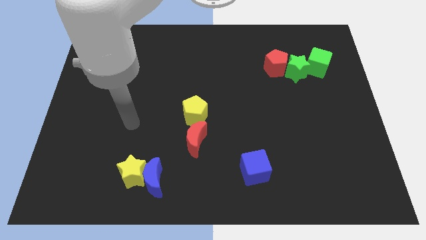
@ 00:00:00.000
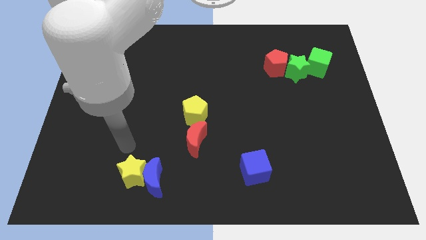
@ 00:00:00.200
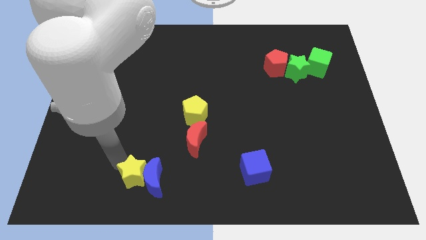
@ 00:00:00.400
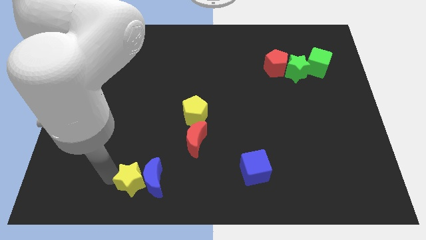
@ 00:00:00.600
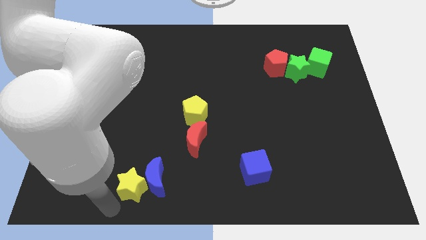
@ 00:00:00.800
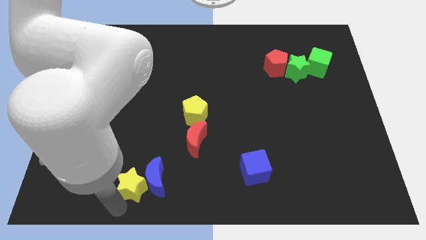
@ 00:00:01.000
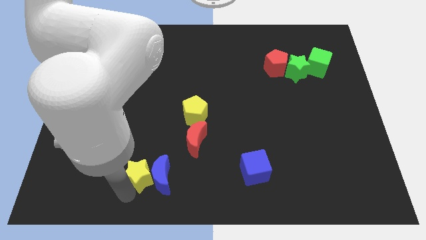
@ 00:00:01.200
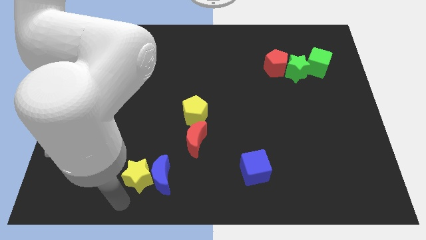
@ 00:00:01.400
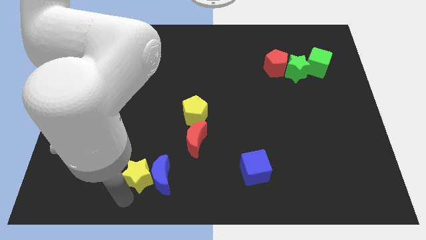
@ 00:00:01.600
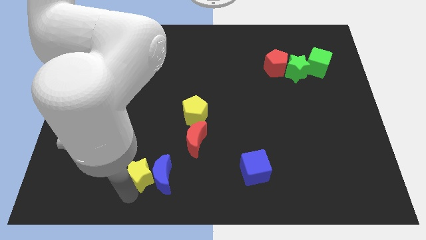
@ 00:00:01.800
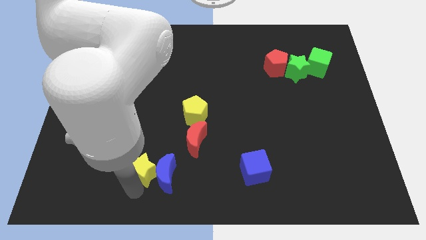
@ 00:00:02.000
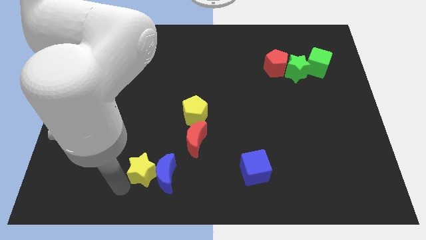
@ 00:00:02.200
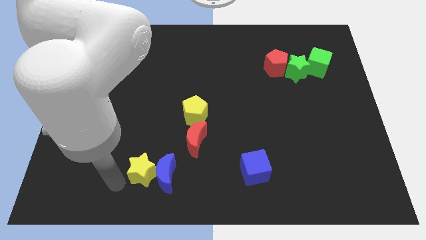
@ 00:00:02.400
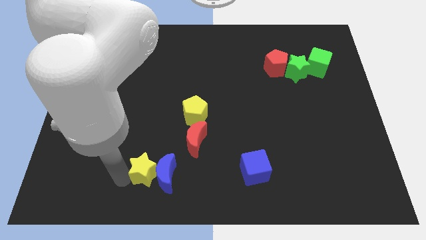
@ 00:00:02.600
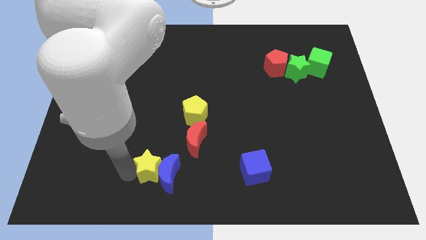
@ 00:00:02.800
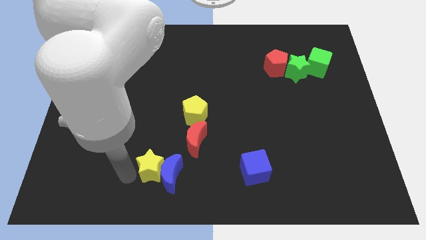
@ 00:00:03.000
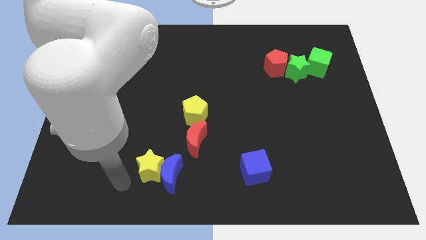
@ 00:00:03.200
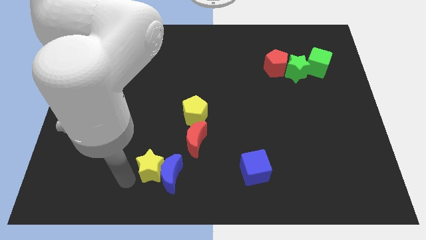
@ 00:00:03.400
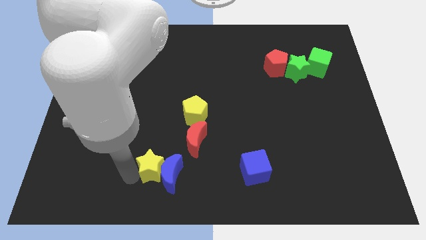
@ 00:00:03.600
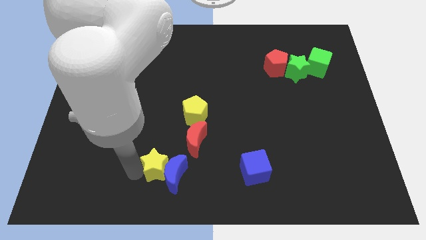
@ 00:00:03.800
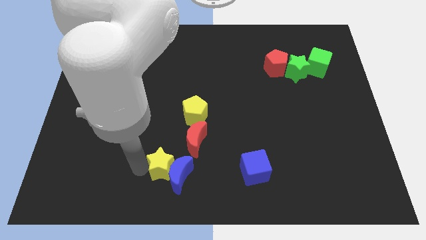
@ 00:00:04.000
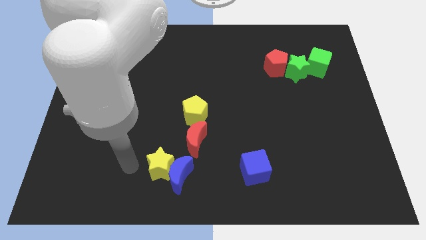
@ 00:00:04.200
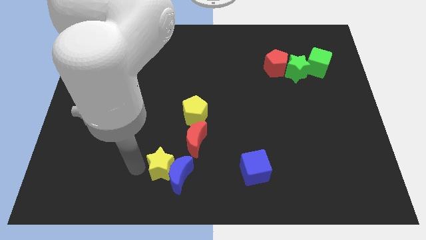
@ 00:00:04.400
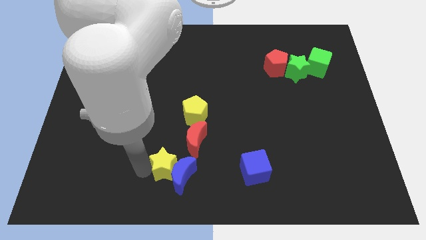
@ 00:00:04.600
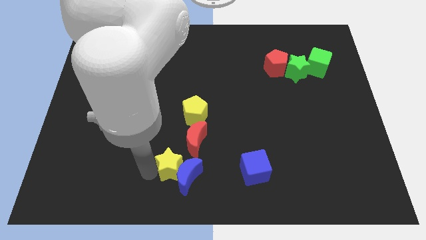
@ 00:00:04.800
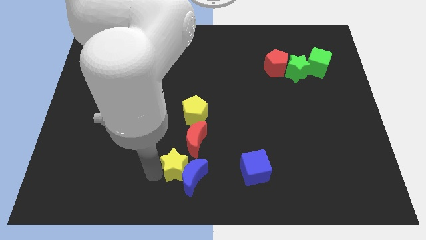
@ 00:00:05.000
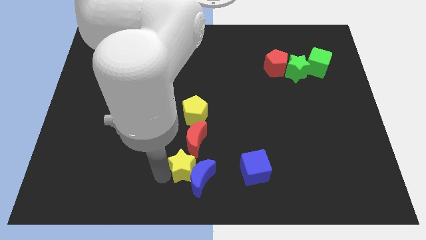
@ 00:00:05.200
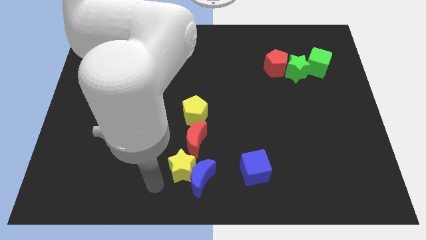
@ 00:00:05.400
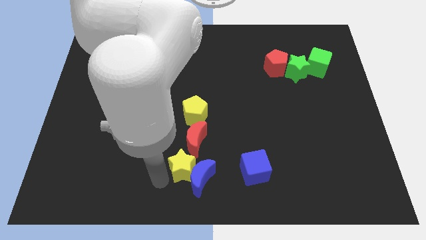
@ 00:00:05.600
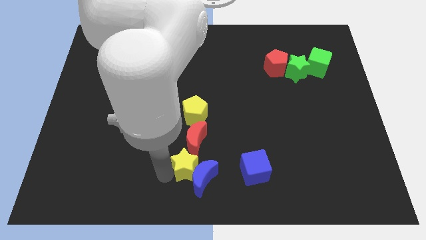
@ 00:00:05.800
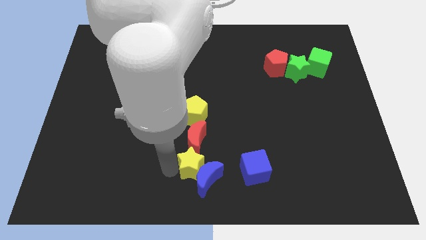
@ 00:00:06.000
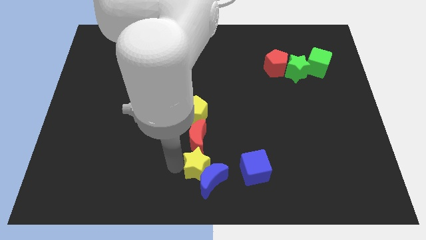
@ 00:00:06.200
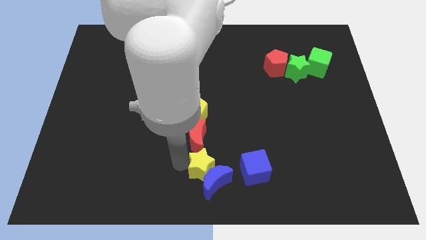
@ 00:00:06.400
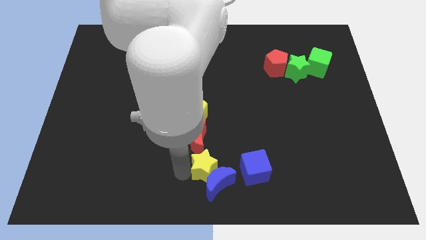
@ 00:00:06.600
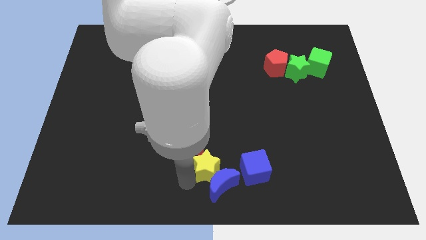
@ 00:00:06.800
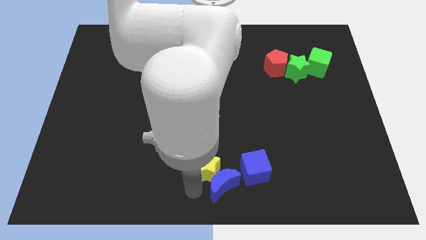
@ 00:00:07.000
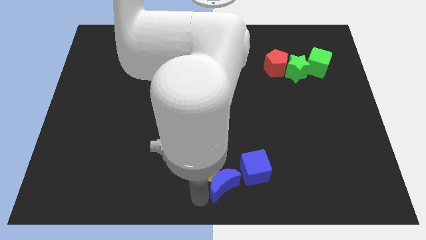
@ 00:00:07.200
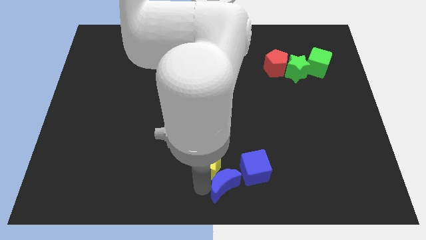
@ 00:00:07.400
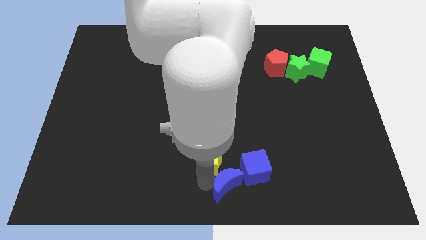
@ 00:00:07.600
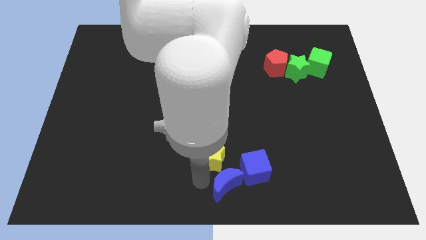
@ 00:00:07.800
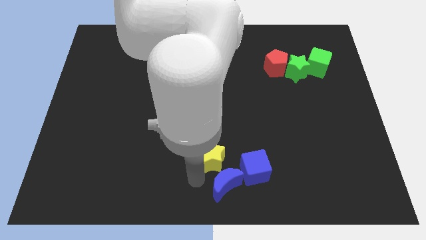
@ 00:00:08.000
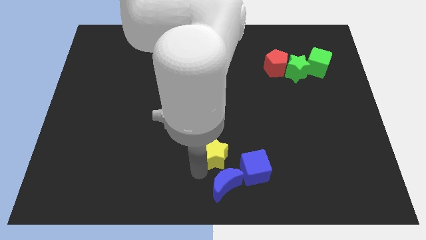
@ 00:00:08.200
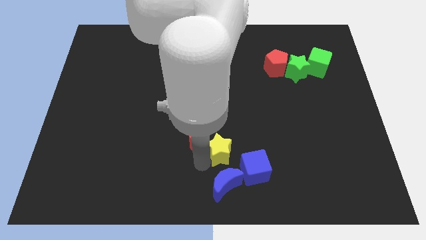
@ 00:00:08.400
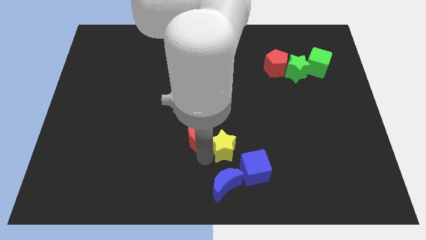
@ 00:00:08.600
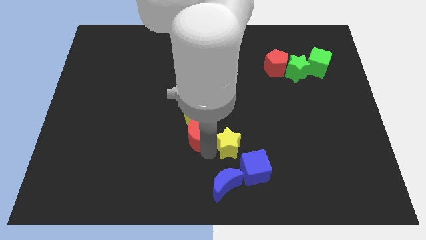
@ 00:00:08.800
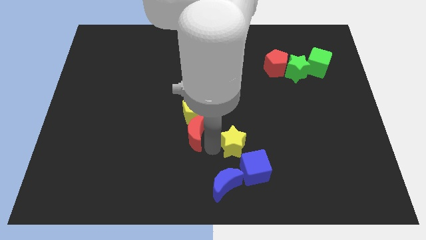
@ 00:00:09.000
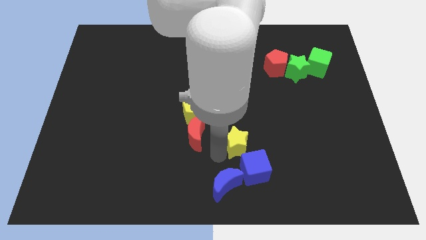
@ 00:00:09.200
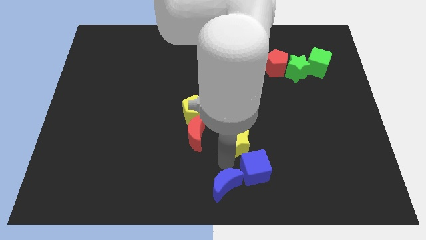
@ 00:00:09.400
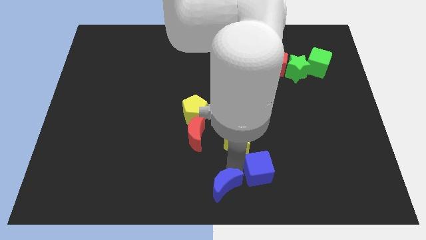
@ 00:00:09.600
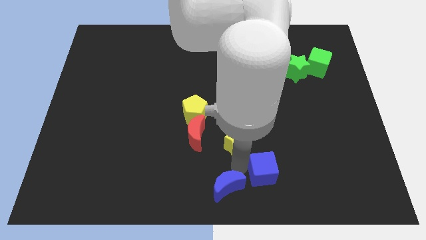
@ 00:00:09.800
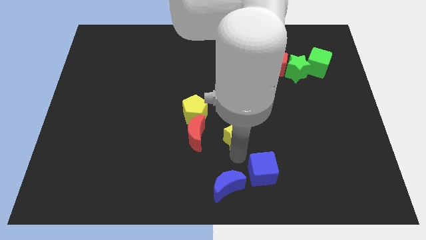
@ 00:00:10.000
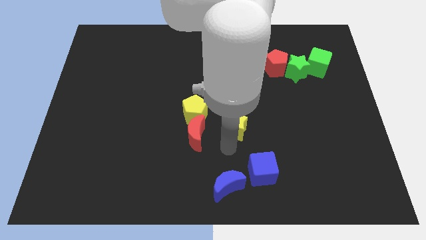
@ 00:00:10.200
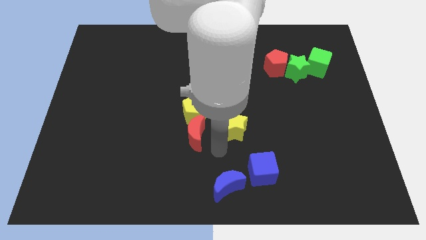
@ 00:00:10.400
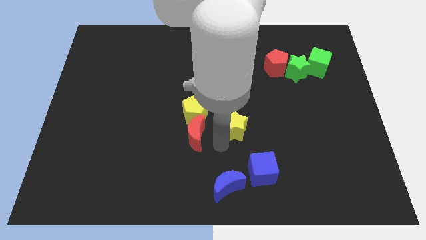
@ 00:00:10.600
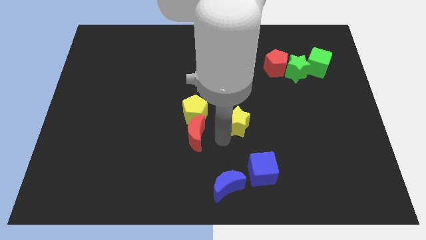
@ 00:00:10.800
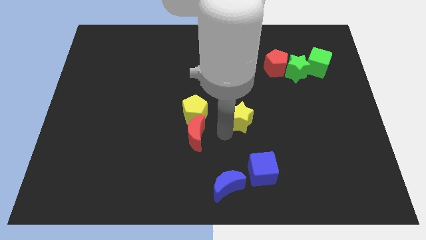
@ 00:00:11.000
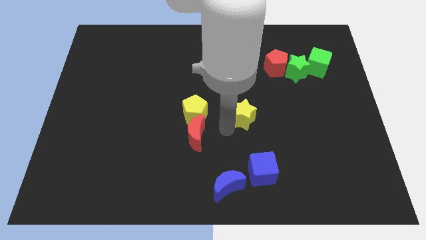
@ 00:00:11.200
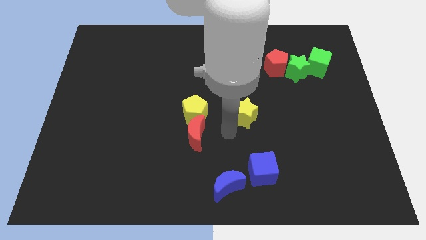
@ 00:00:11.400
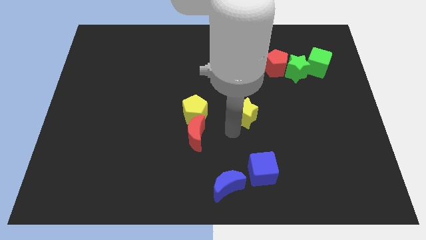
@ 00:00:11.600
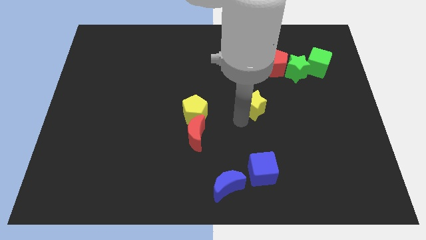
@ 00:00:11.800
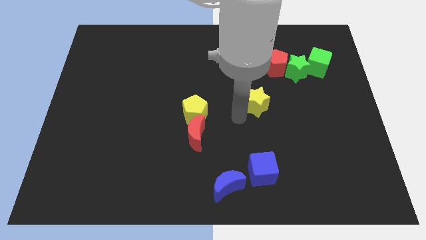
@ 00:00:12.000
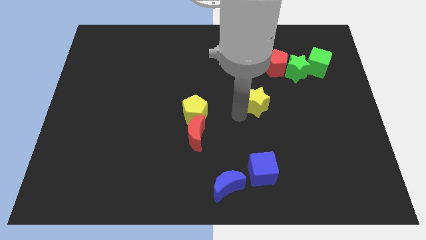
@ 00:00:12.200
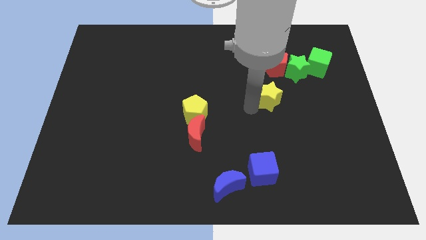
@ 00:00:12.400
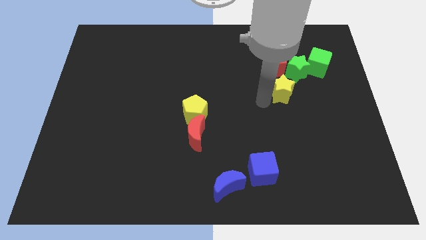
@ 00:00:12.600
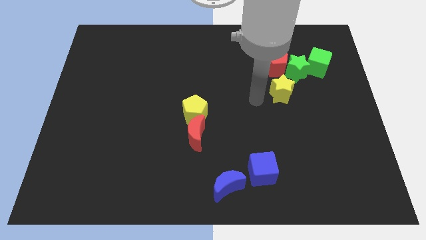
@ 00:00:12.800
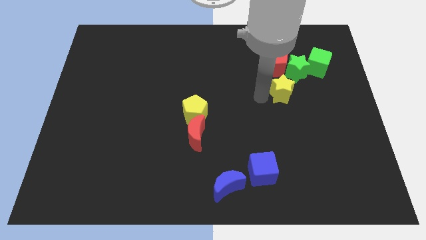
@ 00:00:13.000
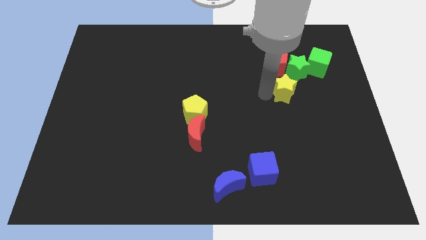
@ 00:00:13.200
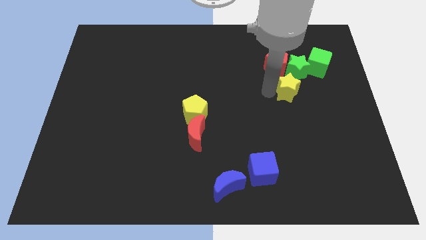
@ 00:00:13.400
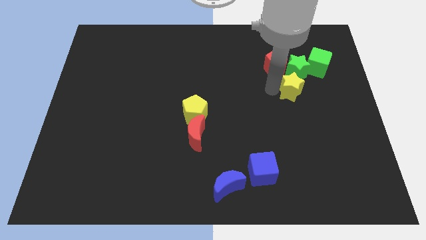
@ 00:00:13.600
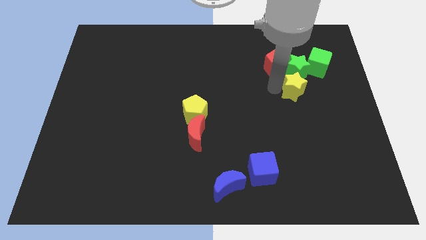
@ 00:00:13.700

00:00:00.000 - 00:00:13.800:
put the yellow star next to the green star

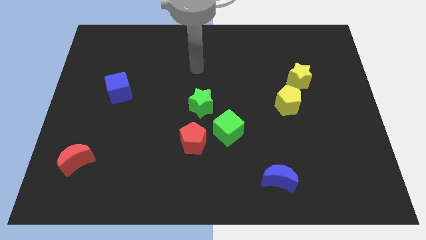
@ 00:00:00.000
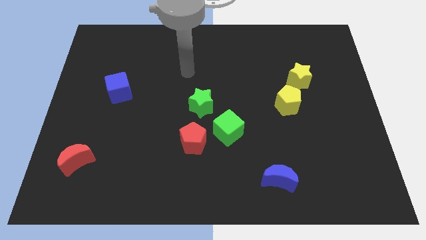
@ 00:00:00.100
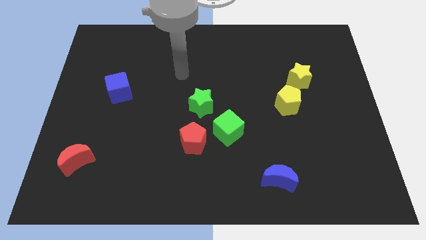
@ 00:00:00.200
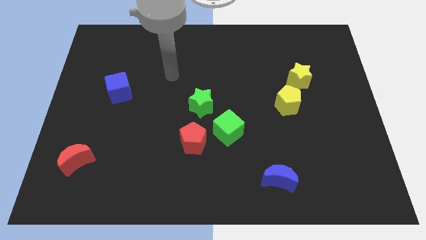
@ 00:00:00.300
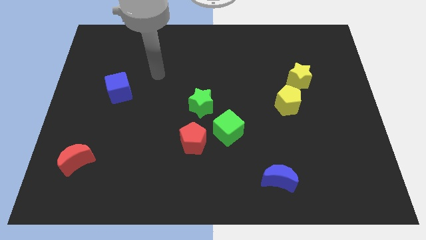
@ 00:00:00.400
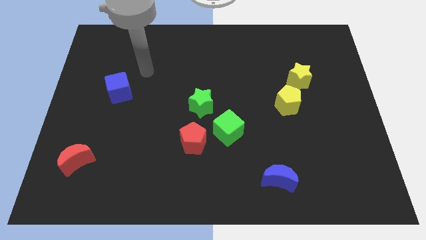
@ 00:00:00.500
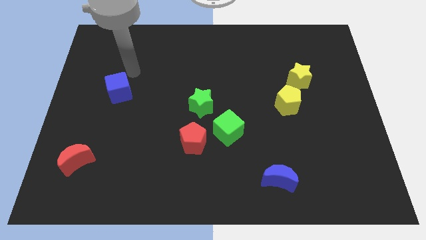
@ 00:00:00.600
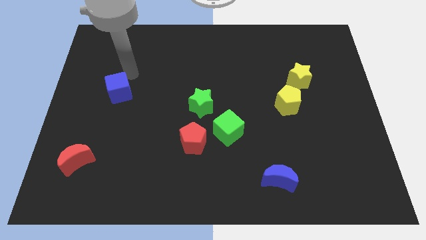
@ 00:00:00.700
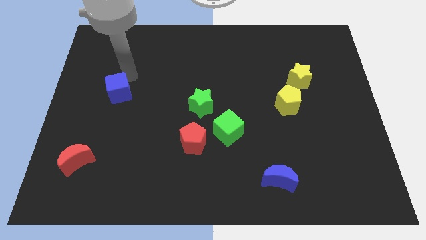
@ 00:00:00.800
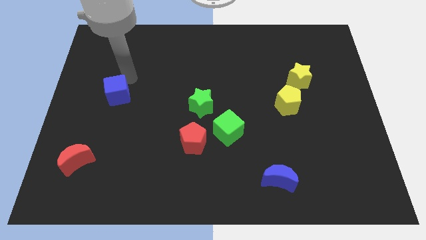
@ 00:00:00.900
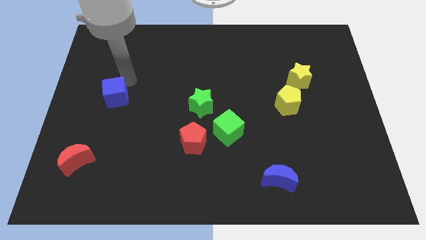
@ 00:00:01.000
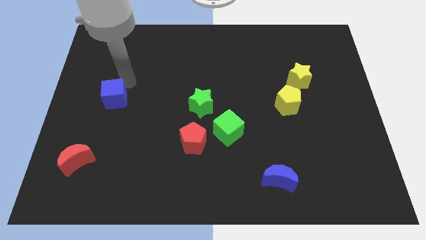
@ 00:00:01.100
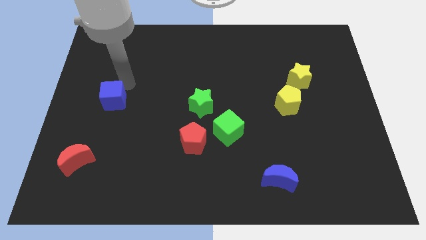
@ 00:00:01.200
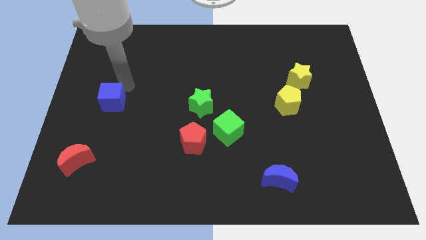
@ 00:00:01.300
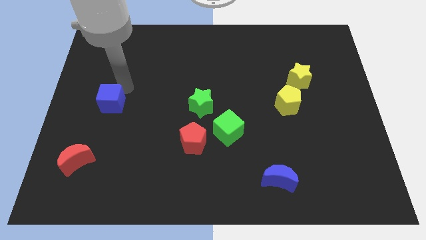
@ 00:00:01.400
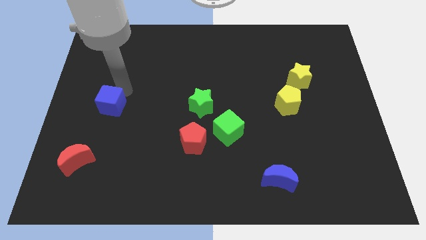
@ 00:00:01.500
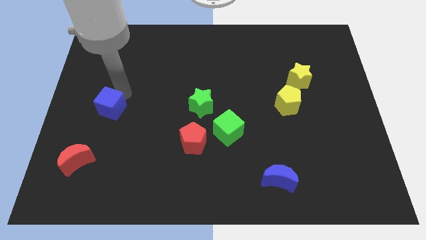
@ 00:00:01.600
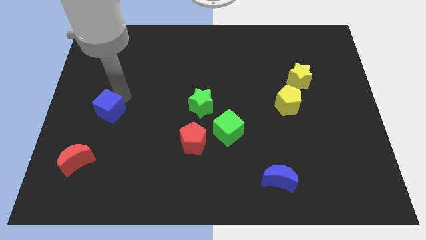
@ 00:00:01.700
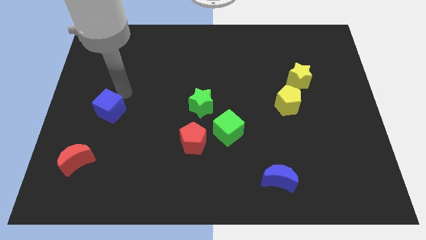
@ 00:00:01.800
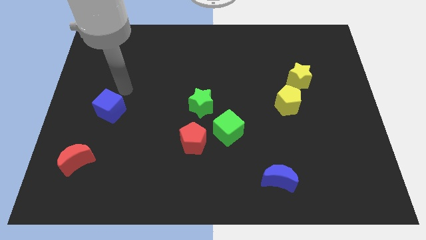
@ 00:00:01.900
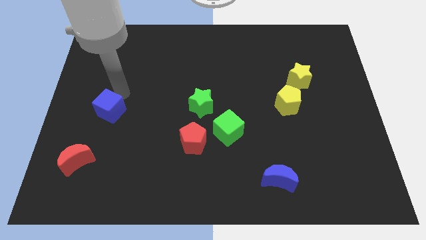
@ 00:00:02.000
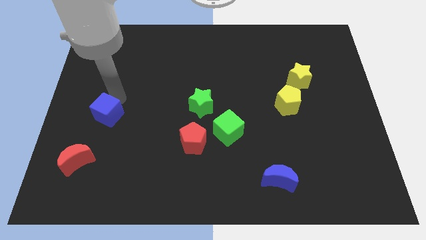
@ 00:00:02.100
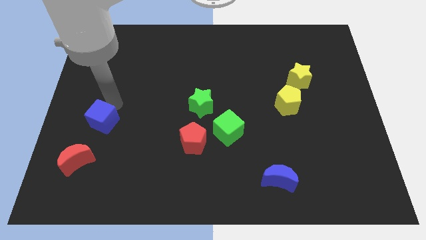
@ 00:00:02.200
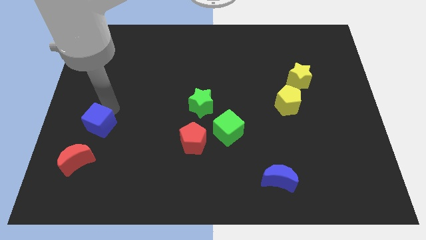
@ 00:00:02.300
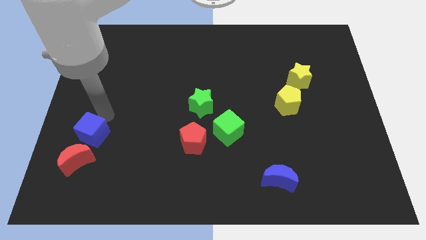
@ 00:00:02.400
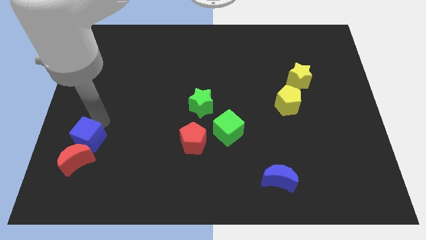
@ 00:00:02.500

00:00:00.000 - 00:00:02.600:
put the blue cube next to the red moon
